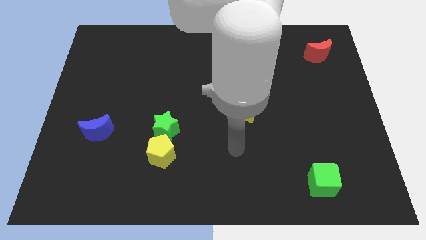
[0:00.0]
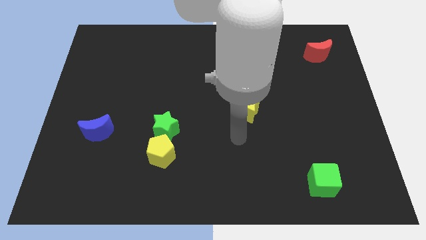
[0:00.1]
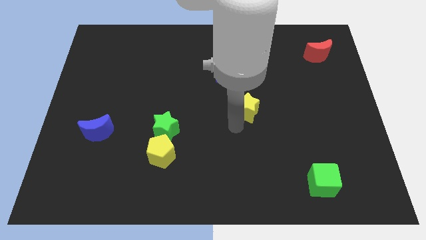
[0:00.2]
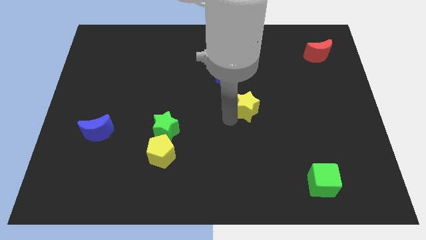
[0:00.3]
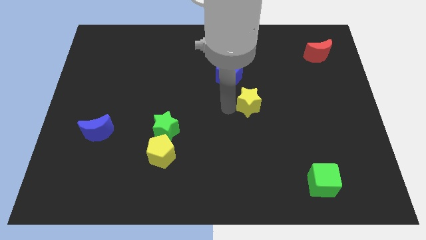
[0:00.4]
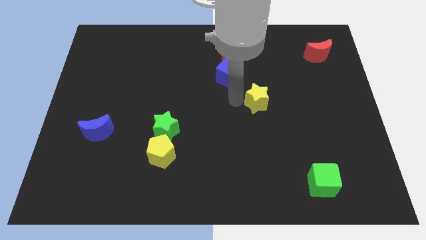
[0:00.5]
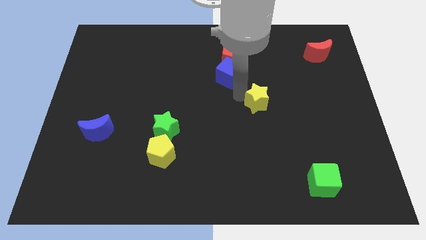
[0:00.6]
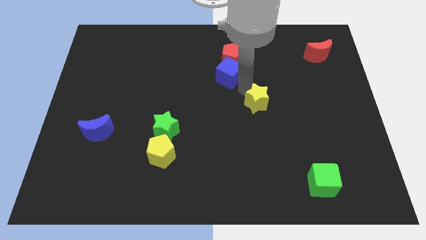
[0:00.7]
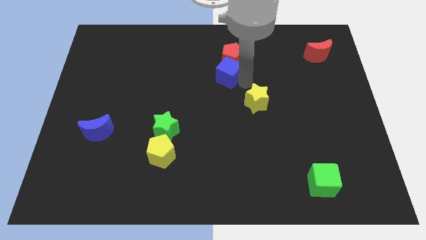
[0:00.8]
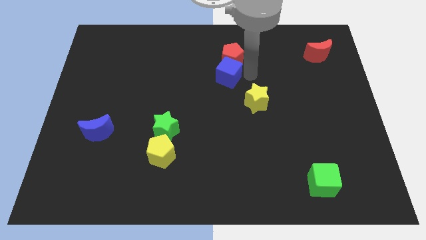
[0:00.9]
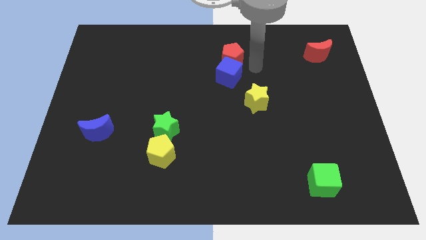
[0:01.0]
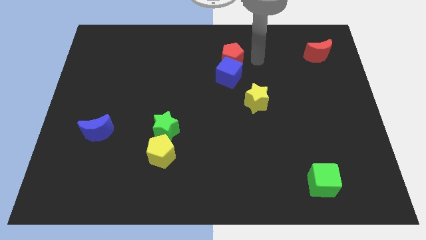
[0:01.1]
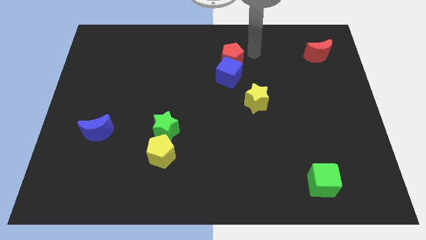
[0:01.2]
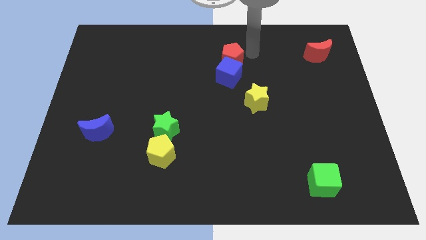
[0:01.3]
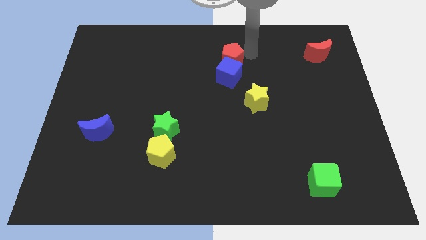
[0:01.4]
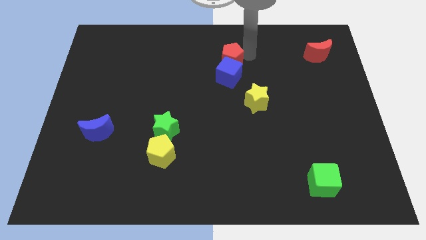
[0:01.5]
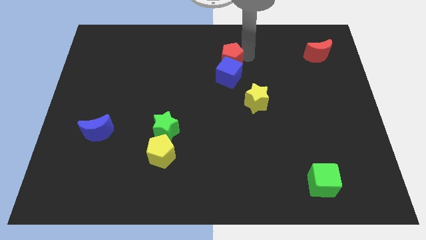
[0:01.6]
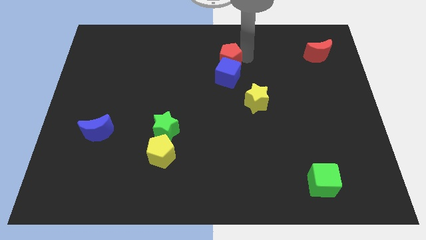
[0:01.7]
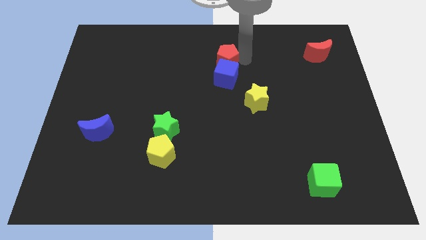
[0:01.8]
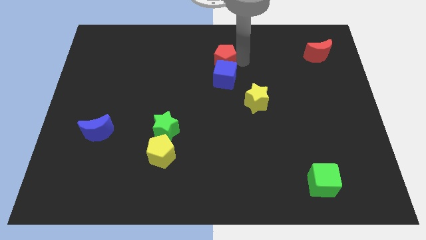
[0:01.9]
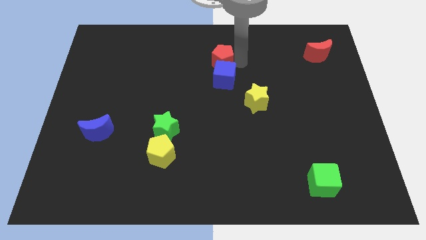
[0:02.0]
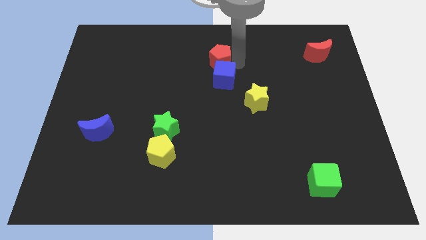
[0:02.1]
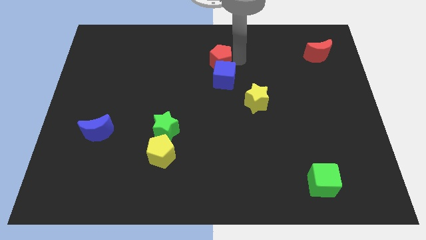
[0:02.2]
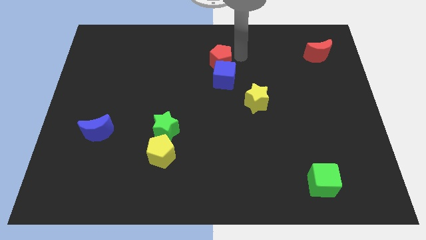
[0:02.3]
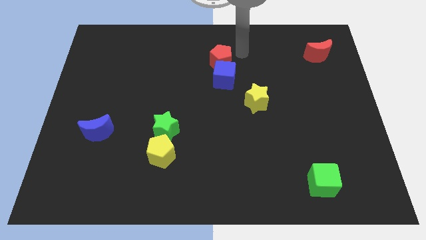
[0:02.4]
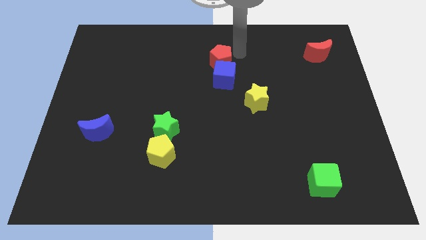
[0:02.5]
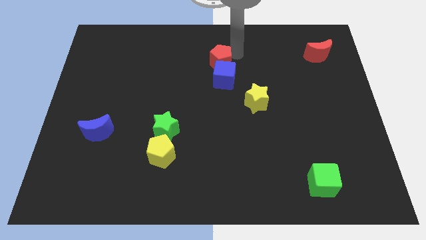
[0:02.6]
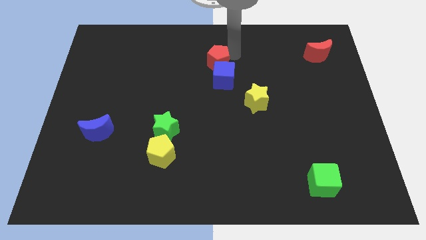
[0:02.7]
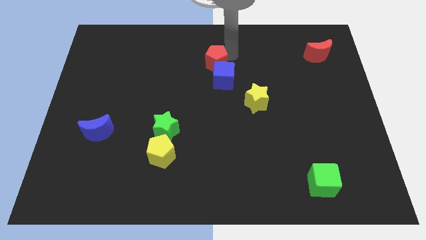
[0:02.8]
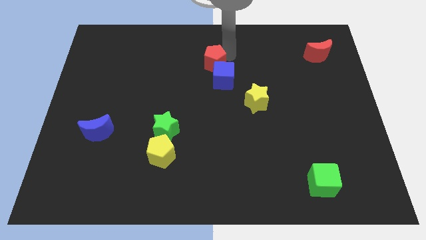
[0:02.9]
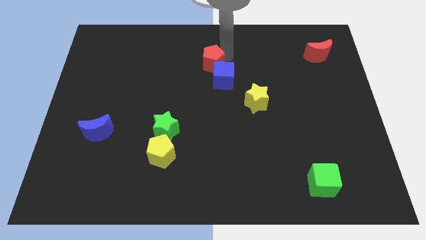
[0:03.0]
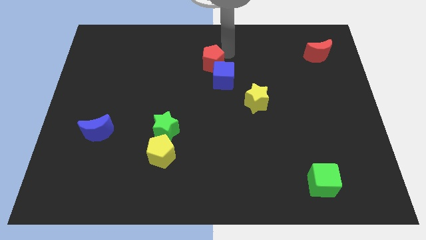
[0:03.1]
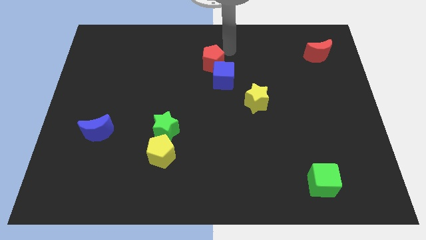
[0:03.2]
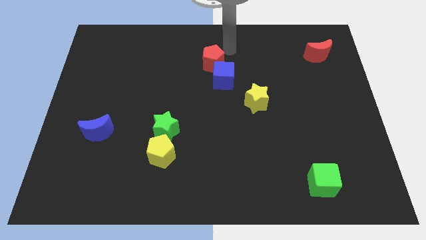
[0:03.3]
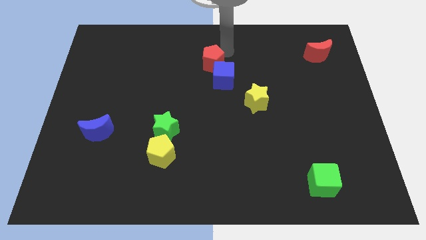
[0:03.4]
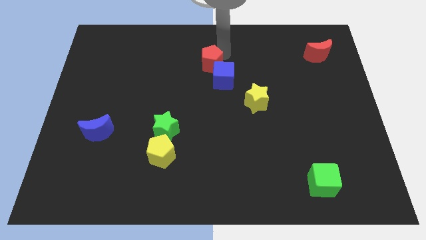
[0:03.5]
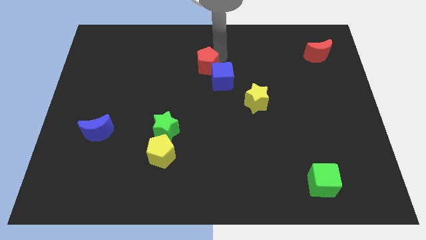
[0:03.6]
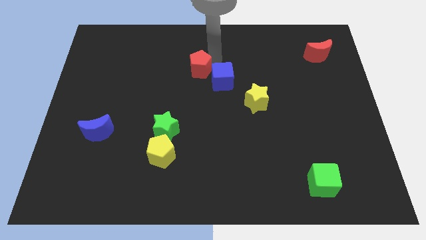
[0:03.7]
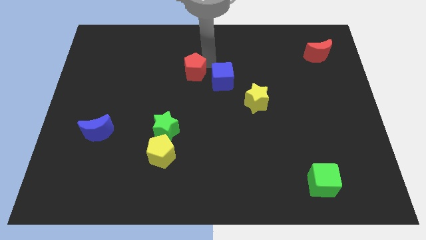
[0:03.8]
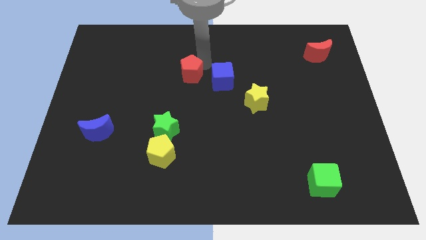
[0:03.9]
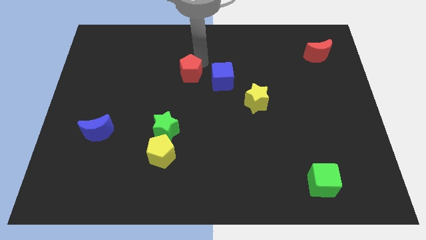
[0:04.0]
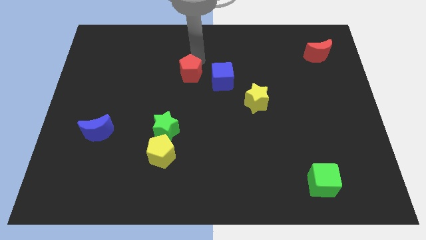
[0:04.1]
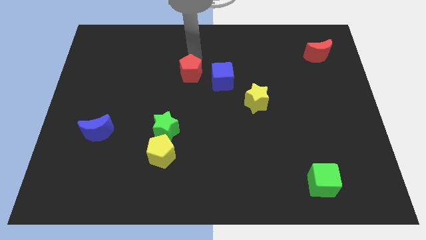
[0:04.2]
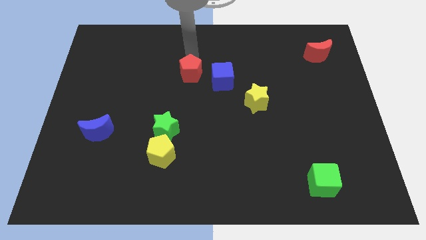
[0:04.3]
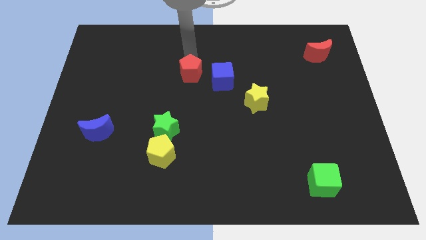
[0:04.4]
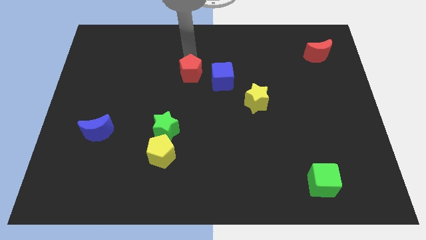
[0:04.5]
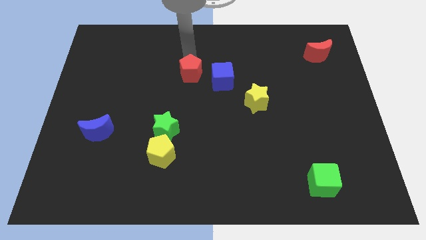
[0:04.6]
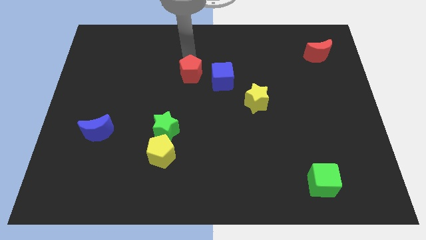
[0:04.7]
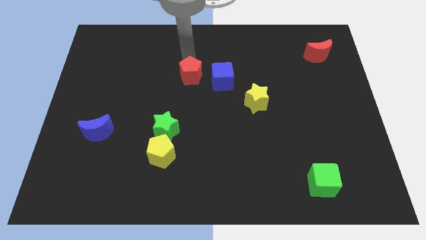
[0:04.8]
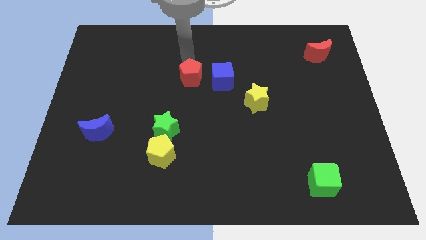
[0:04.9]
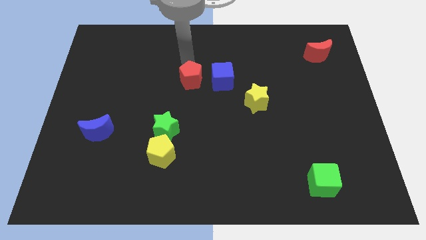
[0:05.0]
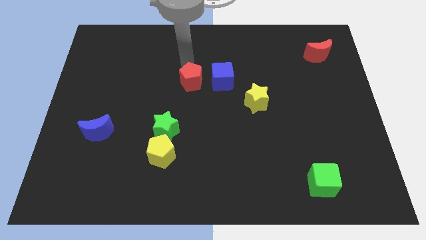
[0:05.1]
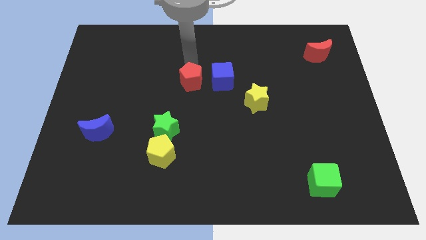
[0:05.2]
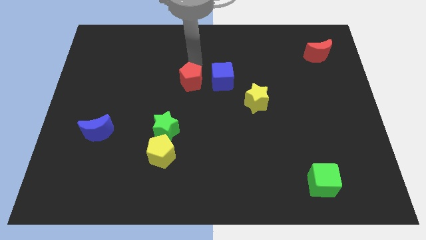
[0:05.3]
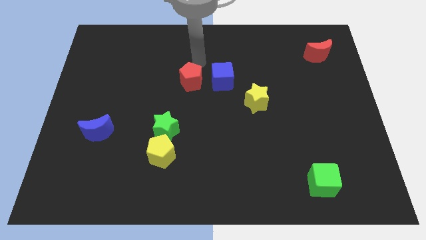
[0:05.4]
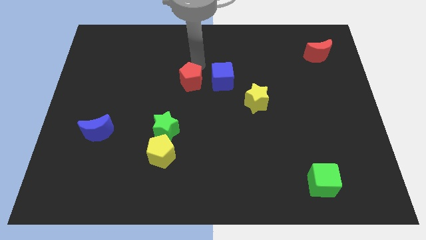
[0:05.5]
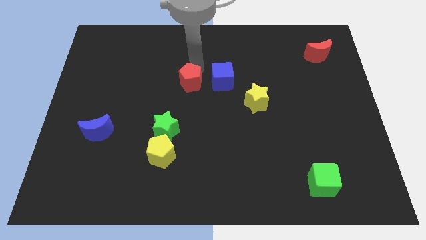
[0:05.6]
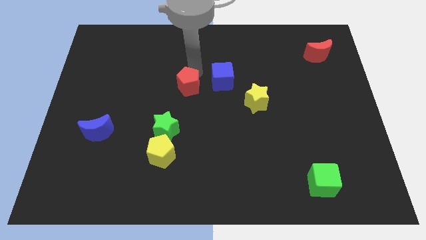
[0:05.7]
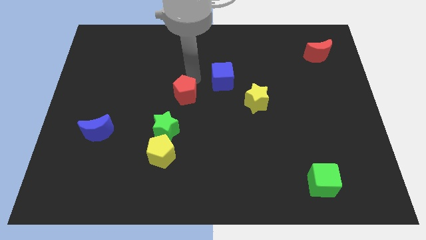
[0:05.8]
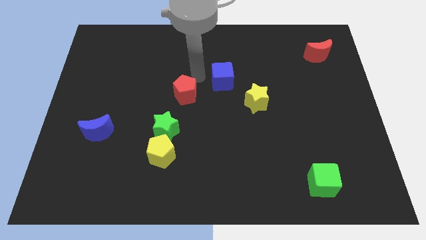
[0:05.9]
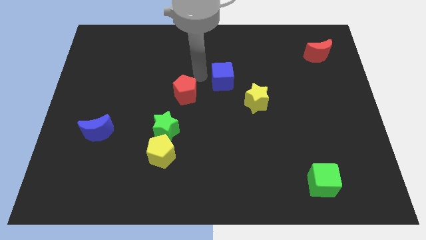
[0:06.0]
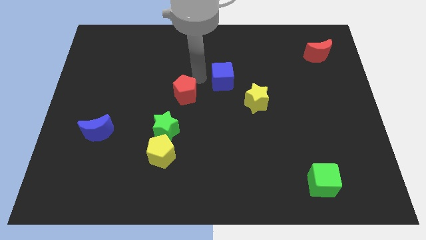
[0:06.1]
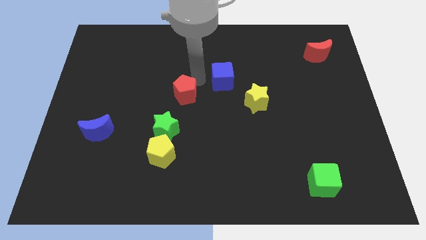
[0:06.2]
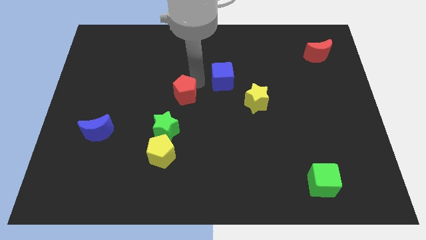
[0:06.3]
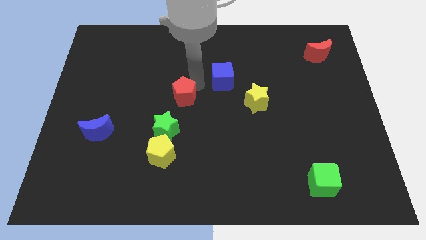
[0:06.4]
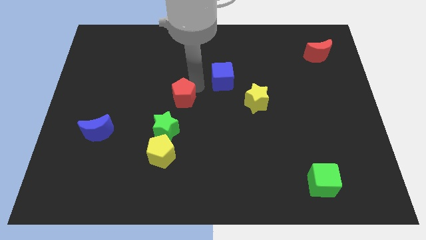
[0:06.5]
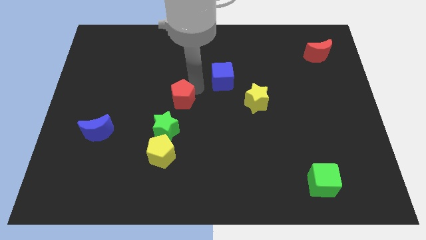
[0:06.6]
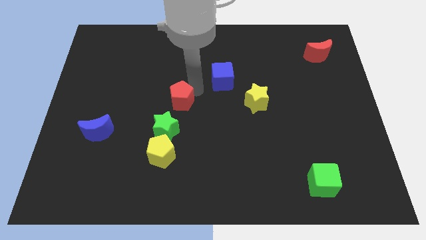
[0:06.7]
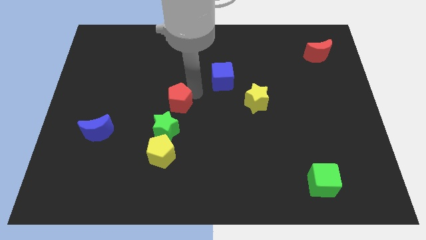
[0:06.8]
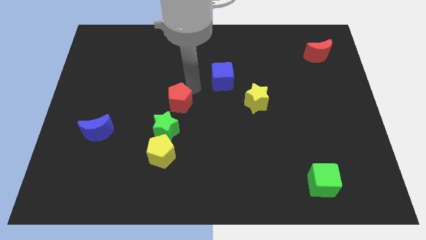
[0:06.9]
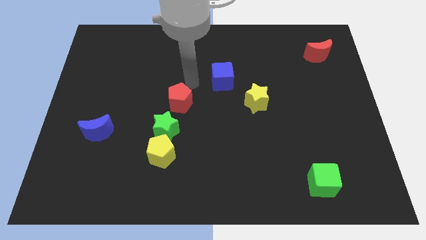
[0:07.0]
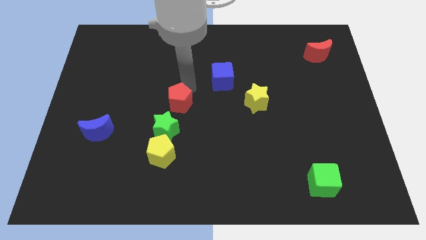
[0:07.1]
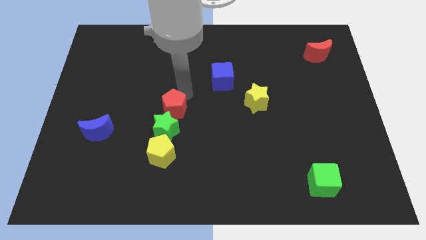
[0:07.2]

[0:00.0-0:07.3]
slide the red pentagon next to the green star
